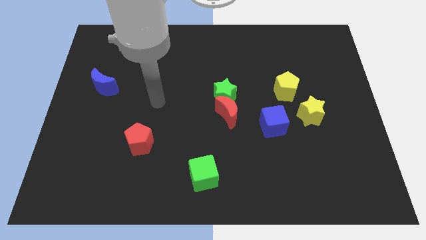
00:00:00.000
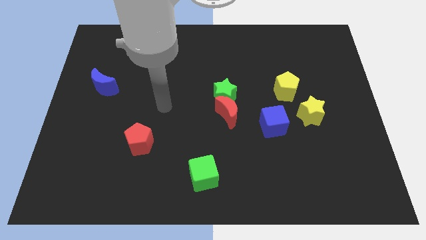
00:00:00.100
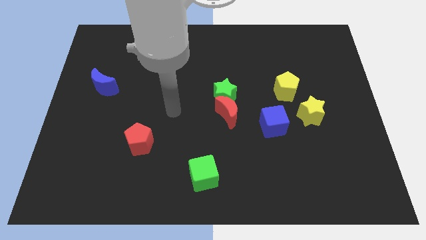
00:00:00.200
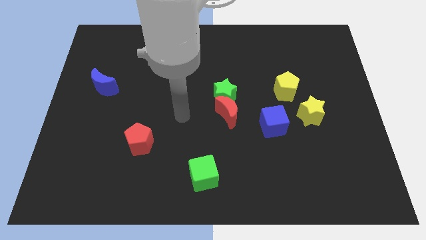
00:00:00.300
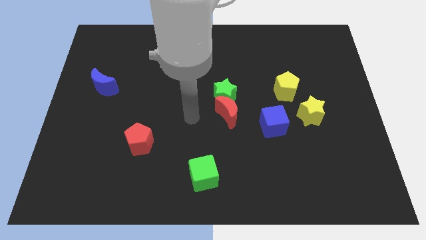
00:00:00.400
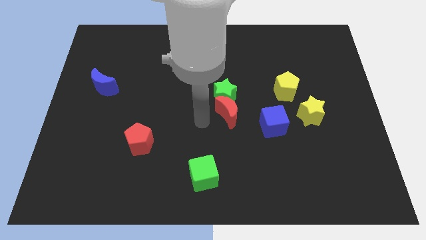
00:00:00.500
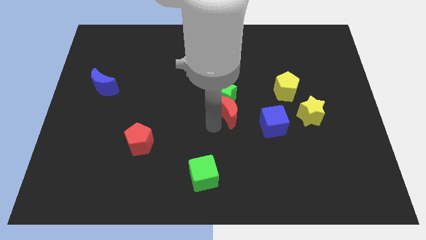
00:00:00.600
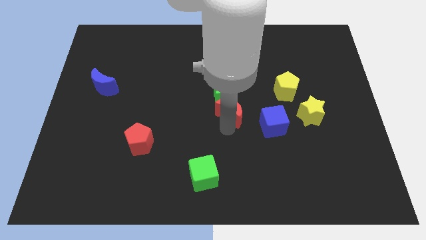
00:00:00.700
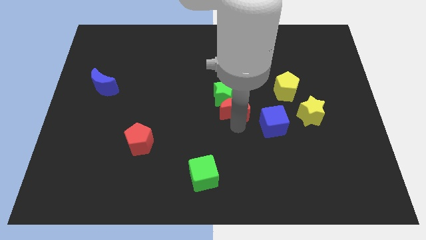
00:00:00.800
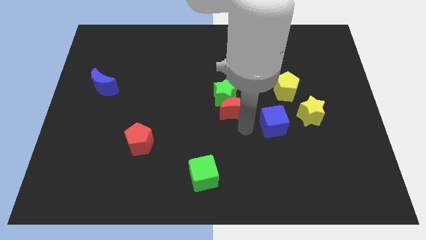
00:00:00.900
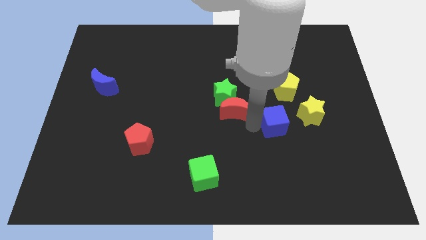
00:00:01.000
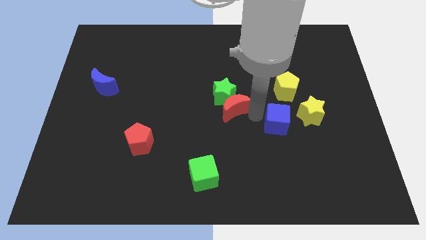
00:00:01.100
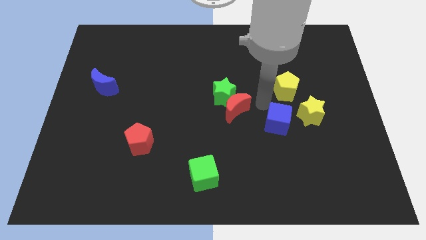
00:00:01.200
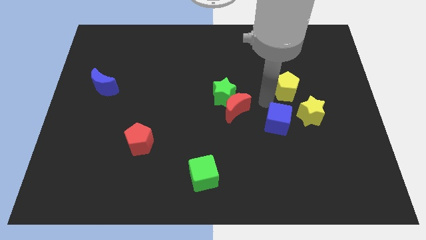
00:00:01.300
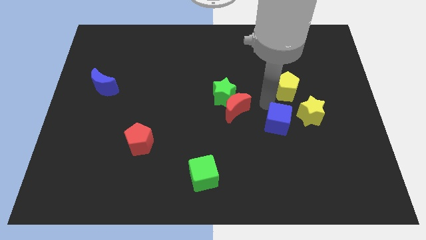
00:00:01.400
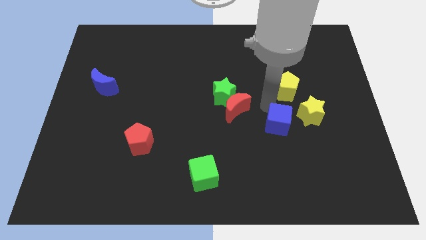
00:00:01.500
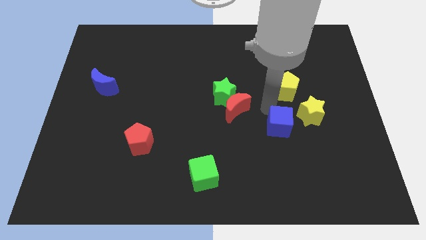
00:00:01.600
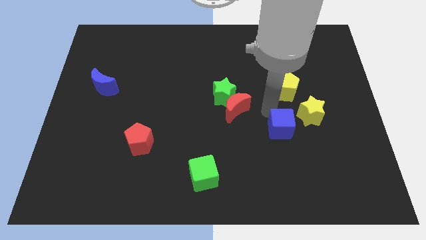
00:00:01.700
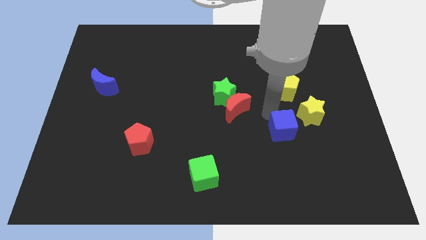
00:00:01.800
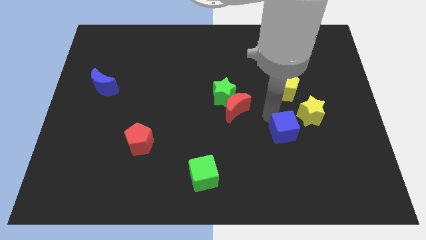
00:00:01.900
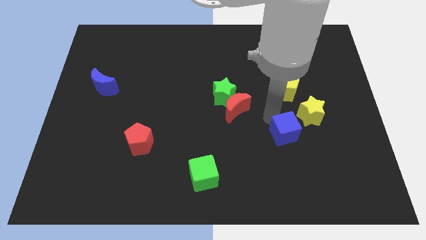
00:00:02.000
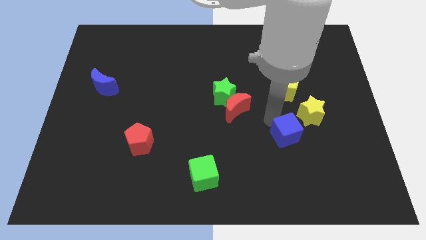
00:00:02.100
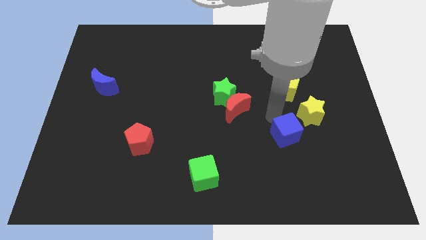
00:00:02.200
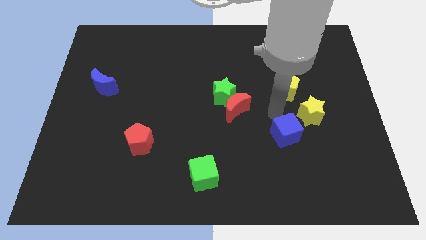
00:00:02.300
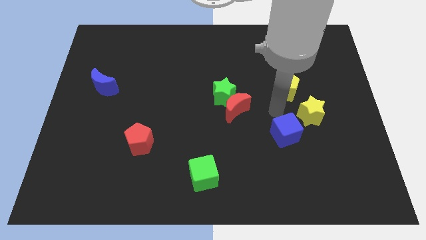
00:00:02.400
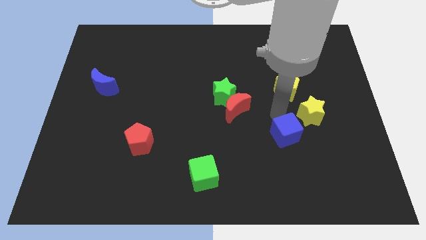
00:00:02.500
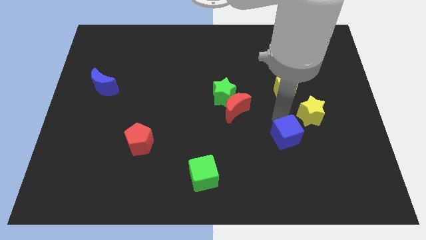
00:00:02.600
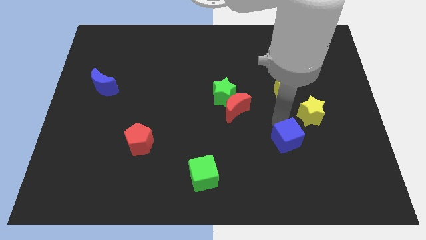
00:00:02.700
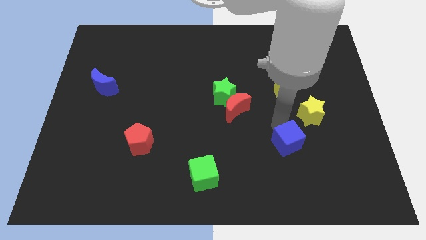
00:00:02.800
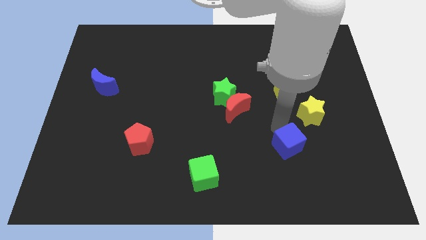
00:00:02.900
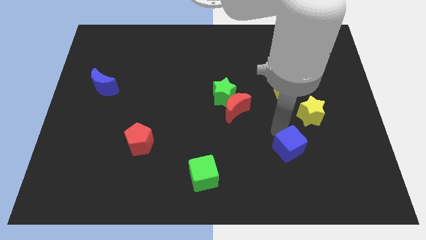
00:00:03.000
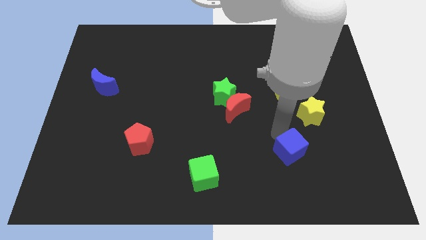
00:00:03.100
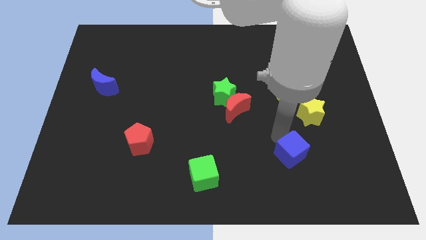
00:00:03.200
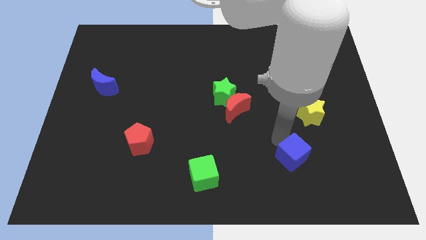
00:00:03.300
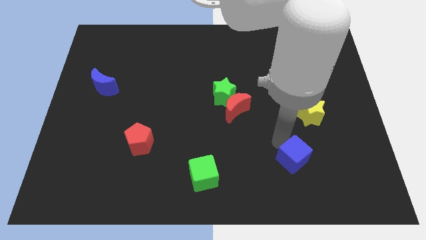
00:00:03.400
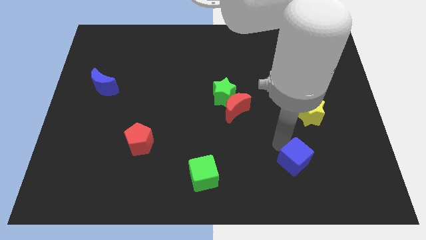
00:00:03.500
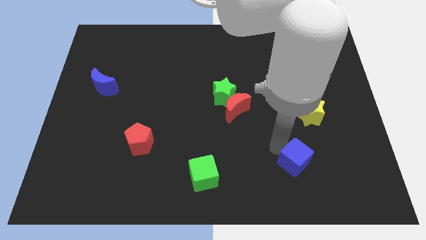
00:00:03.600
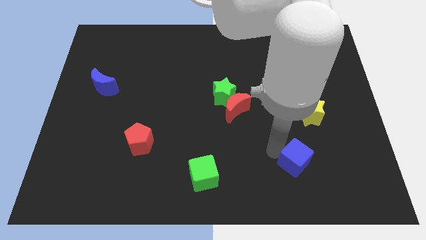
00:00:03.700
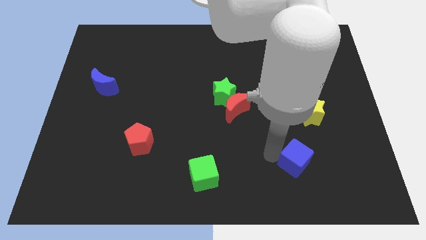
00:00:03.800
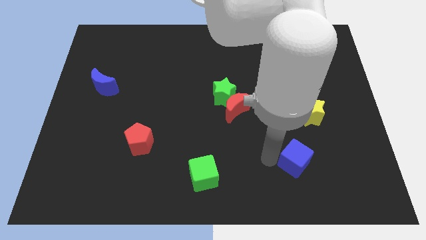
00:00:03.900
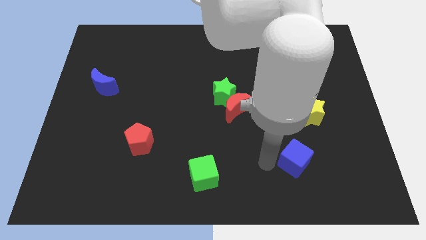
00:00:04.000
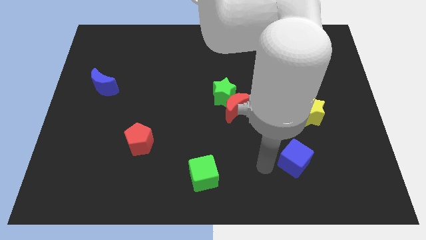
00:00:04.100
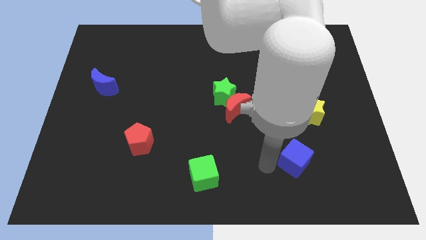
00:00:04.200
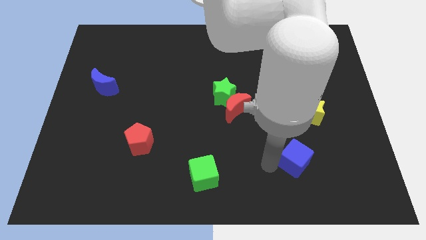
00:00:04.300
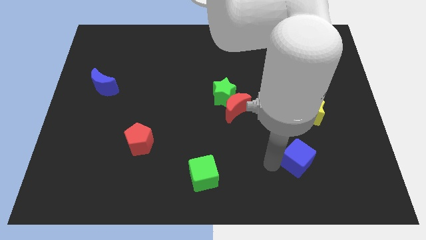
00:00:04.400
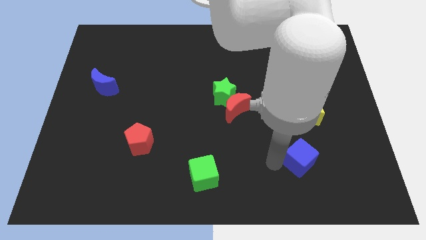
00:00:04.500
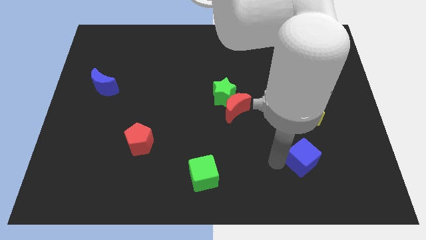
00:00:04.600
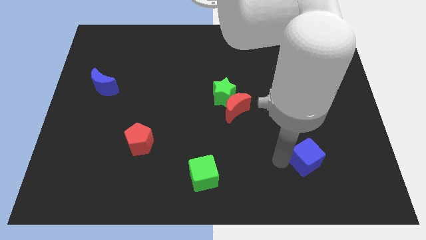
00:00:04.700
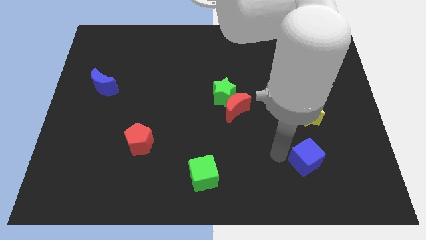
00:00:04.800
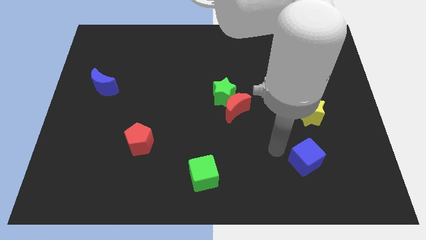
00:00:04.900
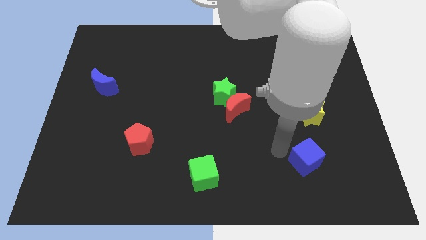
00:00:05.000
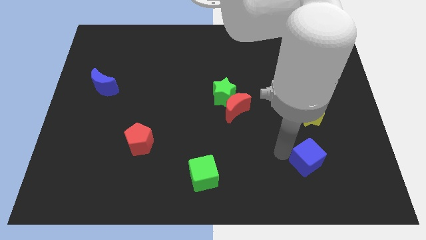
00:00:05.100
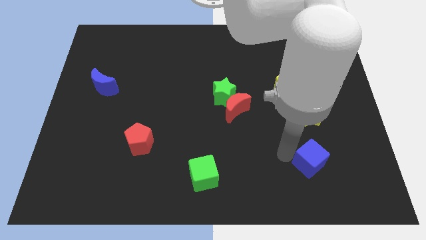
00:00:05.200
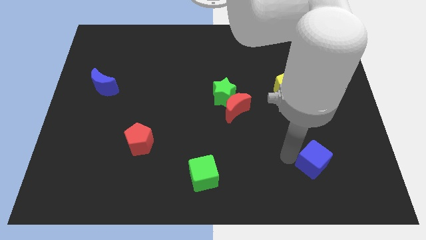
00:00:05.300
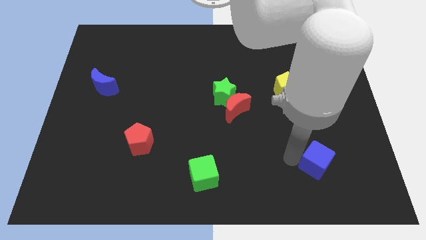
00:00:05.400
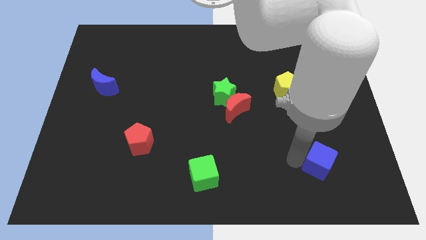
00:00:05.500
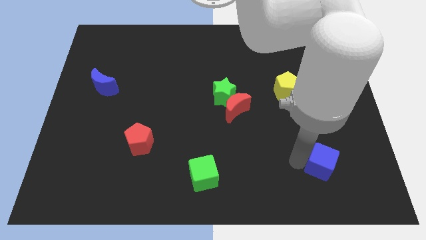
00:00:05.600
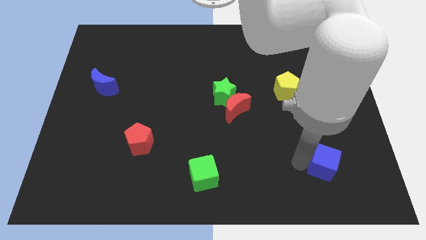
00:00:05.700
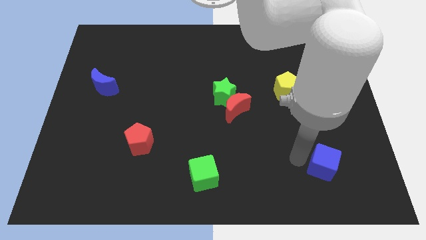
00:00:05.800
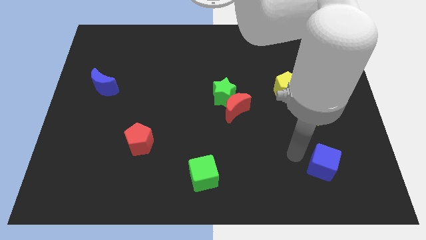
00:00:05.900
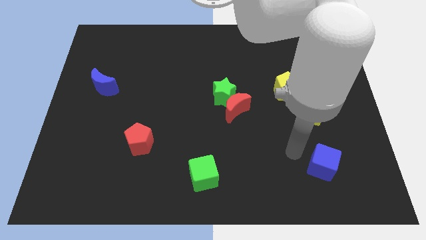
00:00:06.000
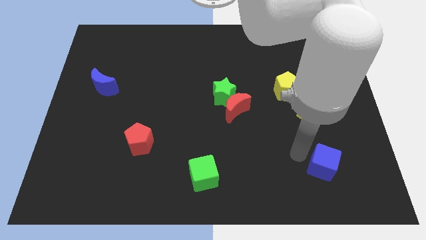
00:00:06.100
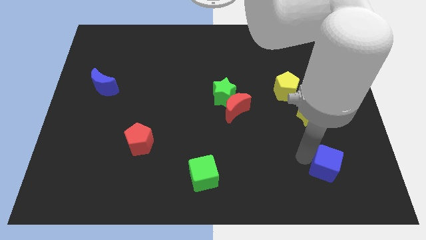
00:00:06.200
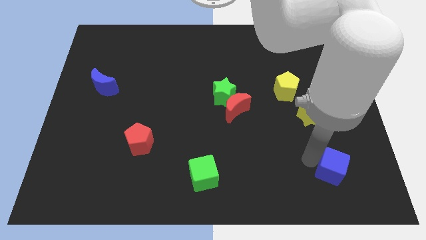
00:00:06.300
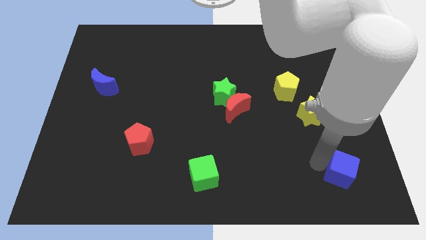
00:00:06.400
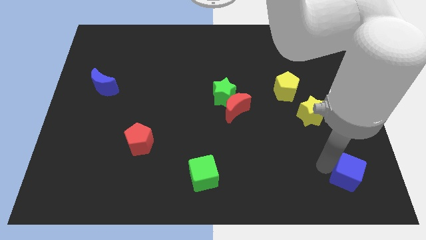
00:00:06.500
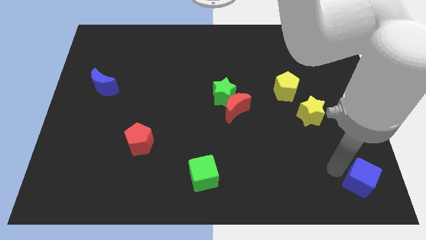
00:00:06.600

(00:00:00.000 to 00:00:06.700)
slide the blue cube to the bottom right of the board

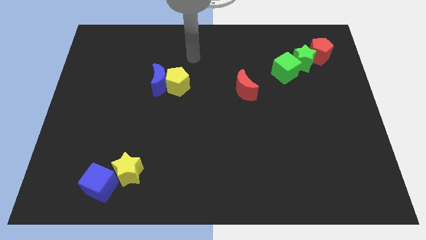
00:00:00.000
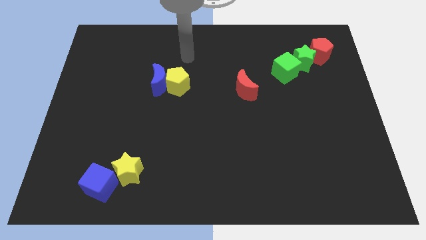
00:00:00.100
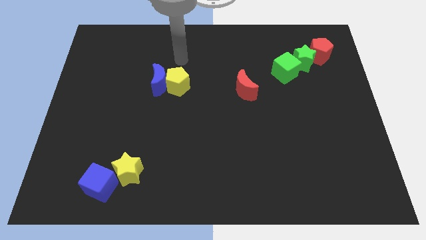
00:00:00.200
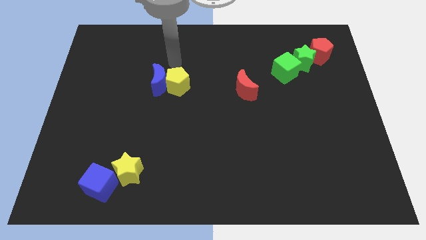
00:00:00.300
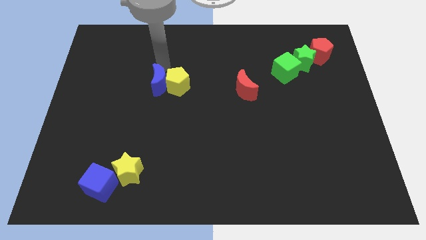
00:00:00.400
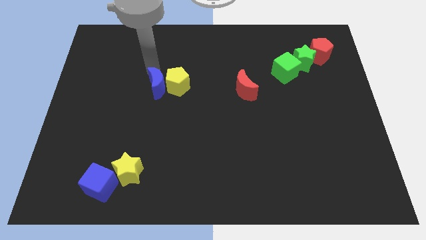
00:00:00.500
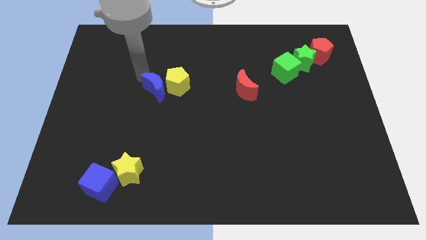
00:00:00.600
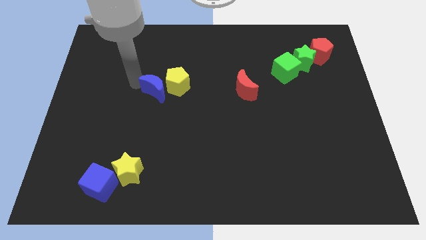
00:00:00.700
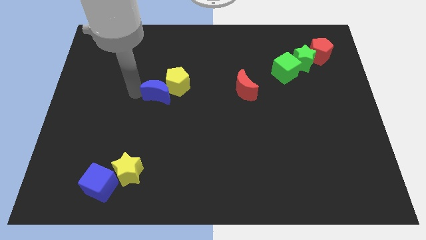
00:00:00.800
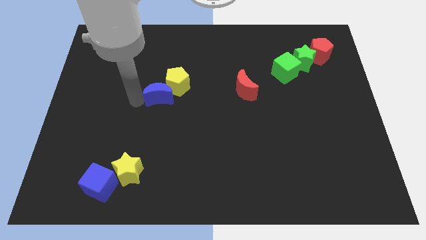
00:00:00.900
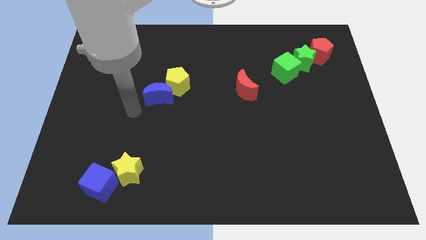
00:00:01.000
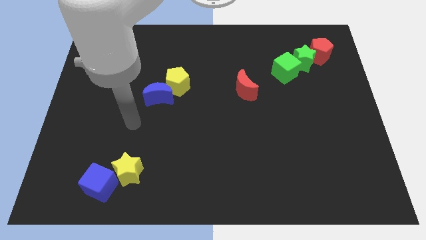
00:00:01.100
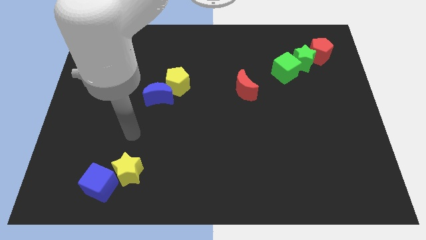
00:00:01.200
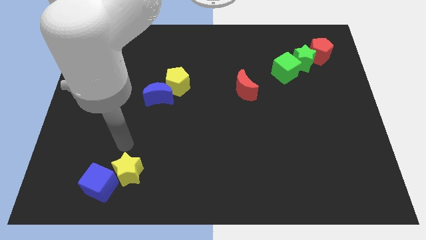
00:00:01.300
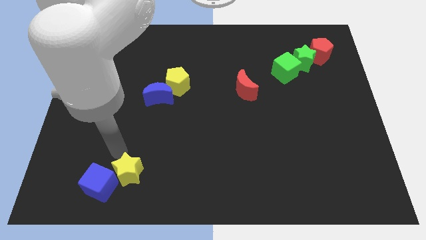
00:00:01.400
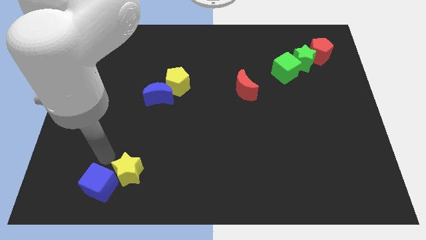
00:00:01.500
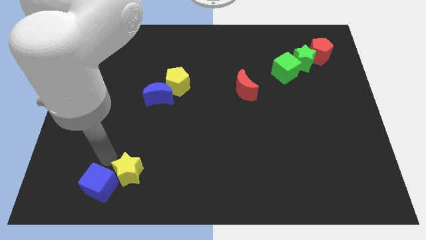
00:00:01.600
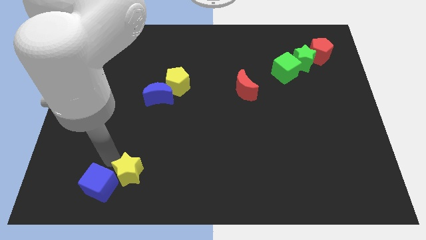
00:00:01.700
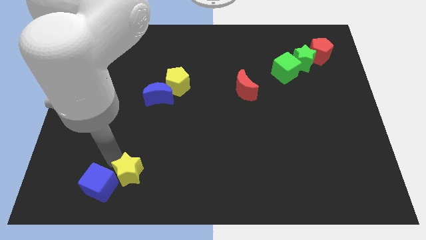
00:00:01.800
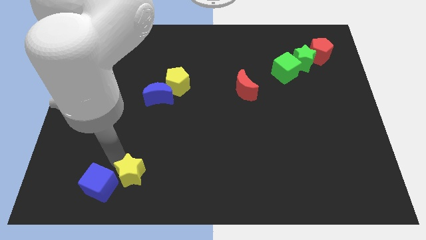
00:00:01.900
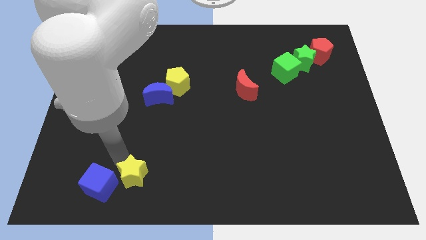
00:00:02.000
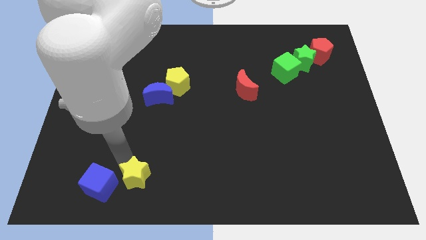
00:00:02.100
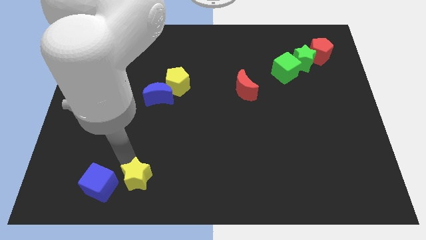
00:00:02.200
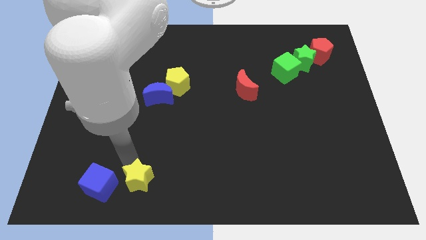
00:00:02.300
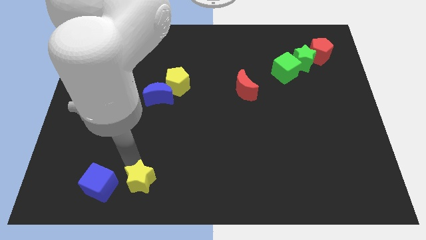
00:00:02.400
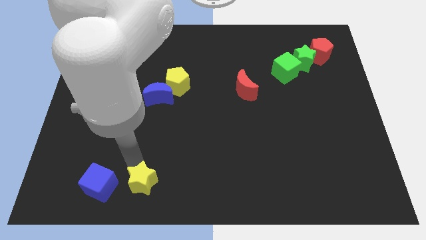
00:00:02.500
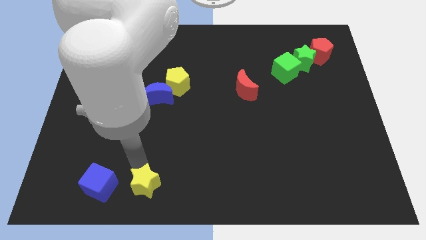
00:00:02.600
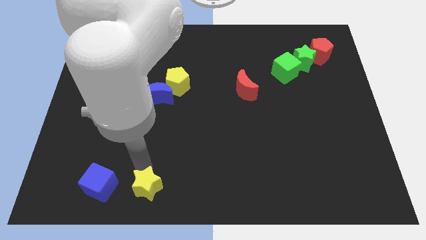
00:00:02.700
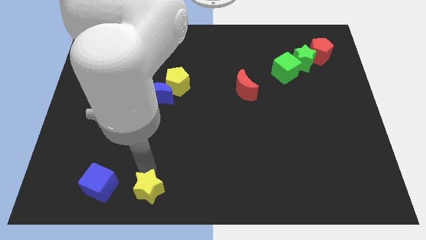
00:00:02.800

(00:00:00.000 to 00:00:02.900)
put the yellow star to the bottom
